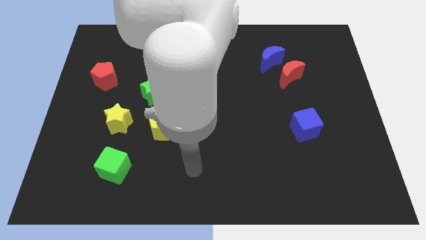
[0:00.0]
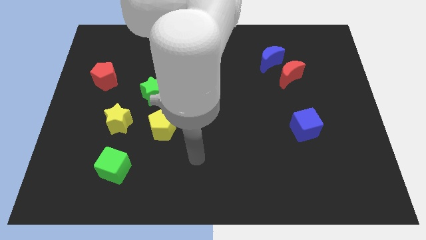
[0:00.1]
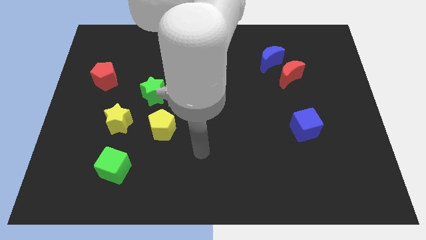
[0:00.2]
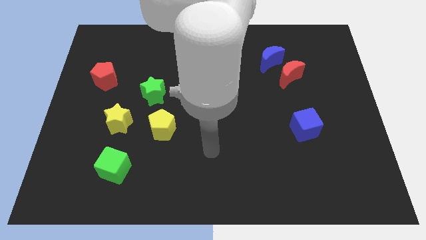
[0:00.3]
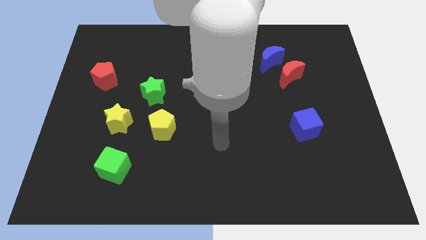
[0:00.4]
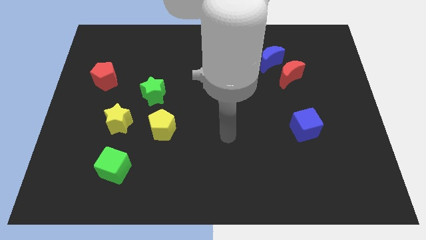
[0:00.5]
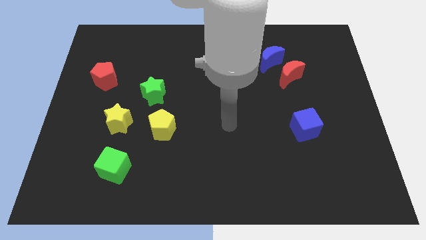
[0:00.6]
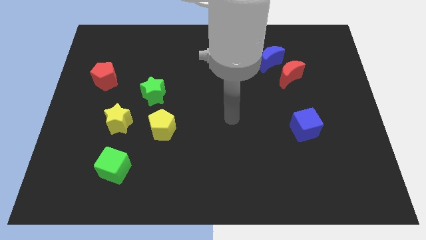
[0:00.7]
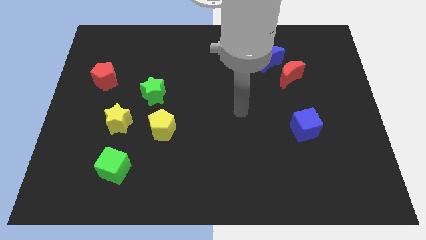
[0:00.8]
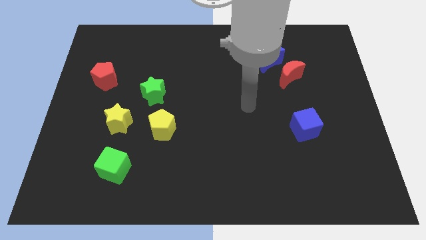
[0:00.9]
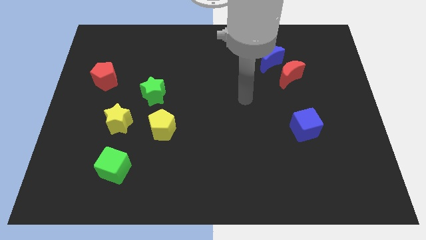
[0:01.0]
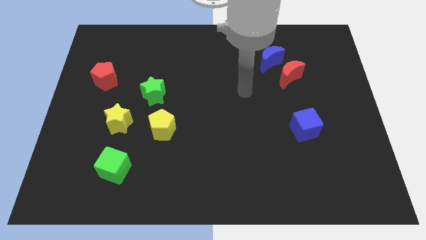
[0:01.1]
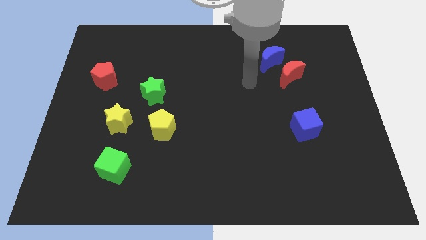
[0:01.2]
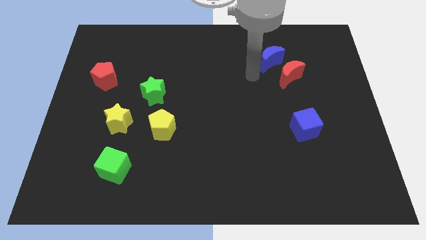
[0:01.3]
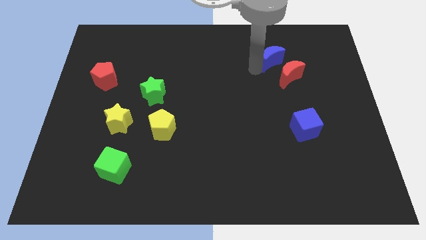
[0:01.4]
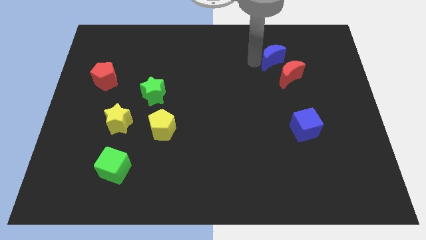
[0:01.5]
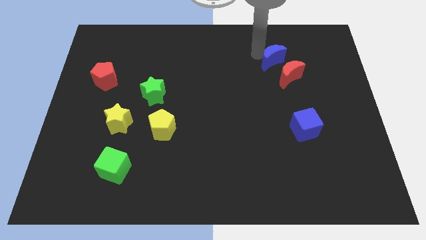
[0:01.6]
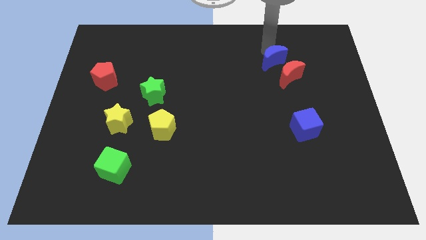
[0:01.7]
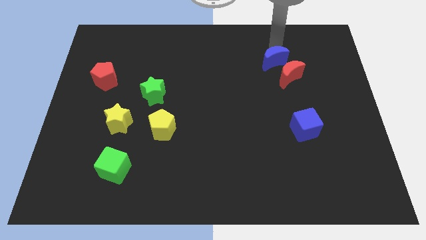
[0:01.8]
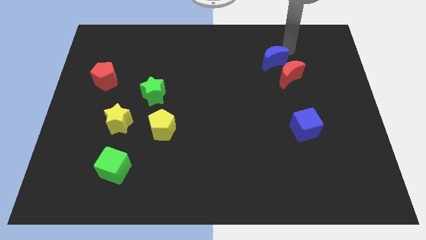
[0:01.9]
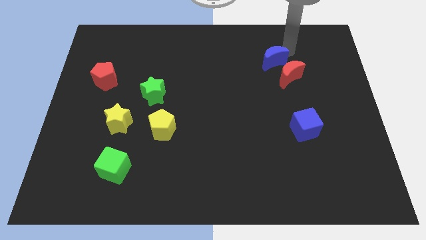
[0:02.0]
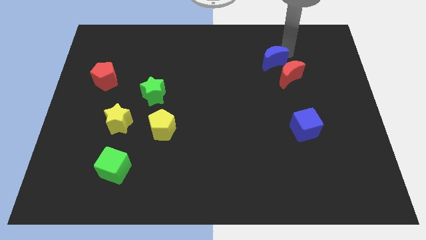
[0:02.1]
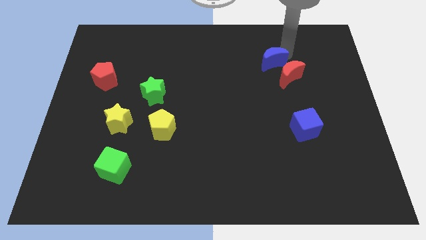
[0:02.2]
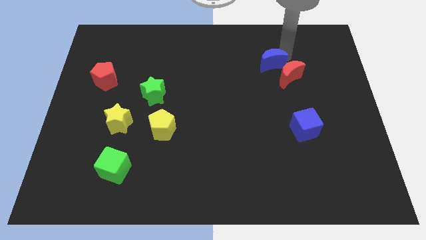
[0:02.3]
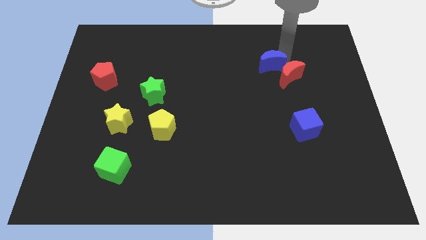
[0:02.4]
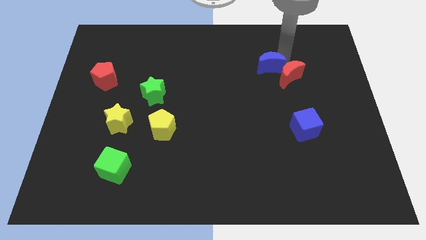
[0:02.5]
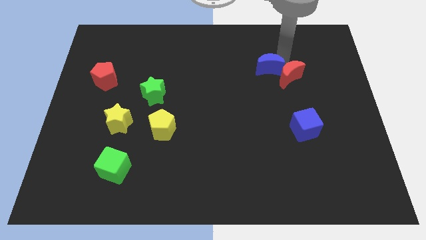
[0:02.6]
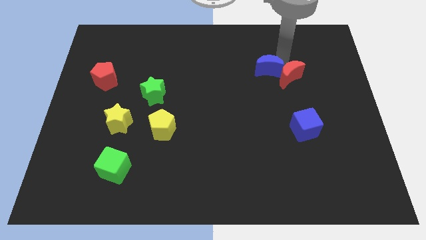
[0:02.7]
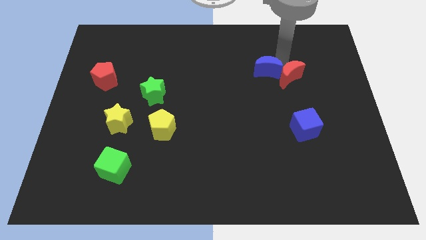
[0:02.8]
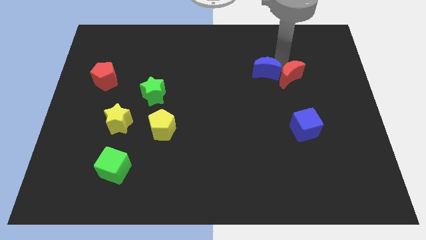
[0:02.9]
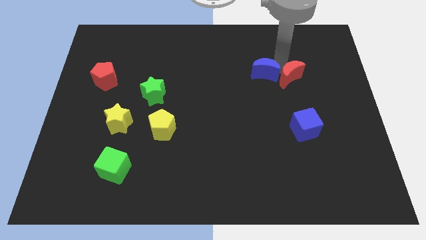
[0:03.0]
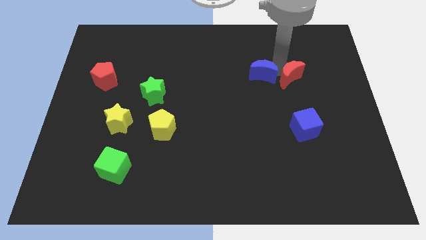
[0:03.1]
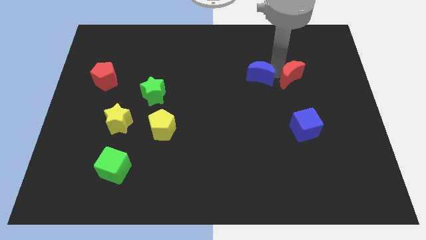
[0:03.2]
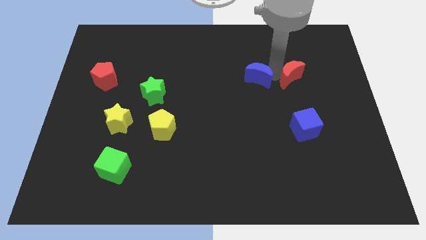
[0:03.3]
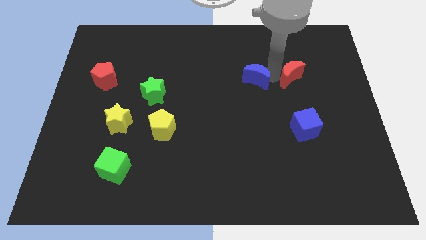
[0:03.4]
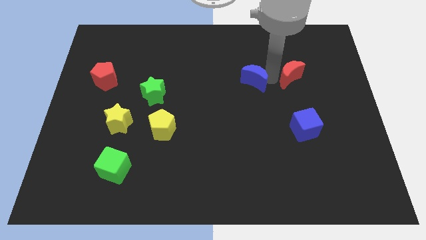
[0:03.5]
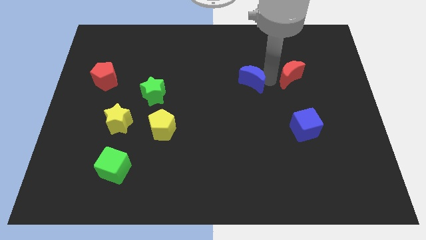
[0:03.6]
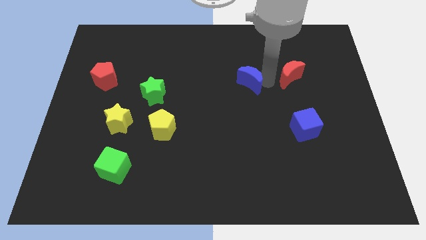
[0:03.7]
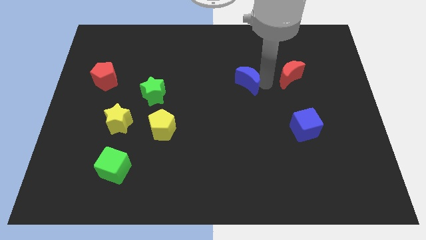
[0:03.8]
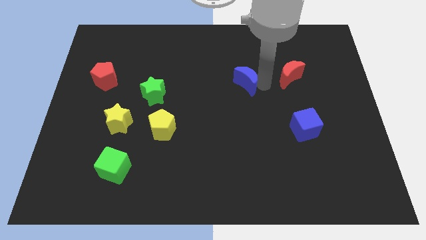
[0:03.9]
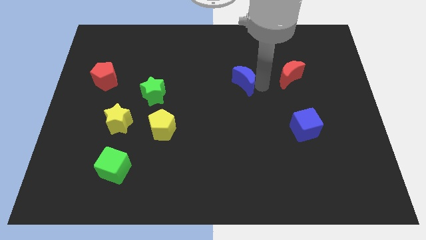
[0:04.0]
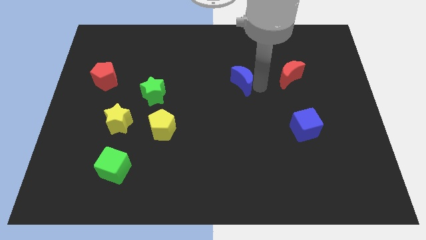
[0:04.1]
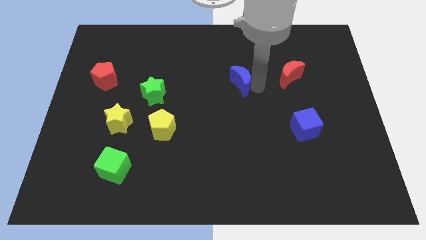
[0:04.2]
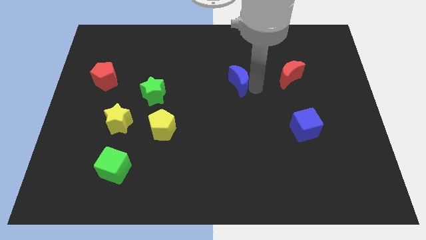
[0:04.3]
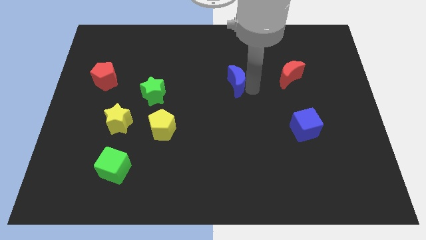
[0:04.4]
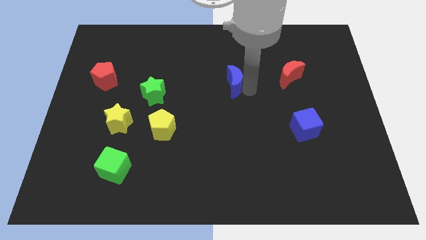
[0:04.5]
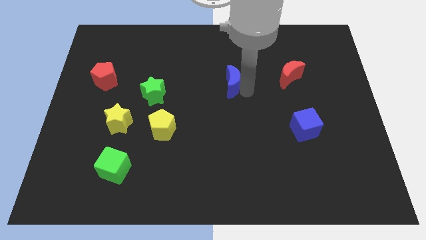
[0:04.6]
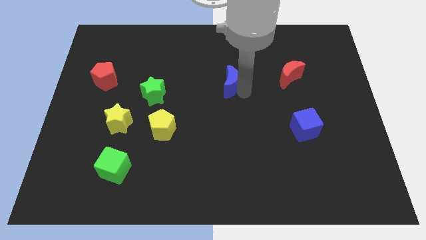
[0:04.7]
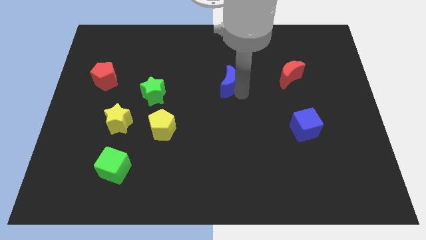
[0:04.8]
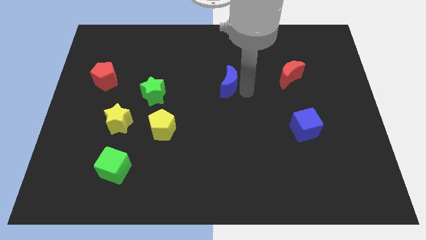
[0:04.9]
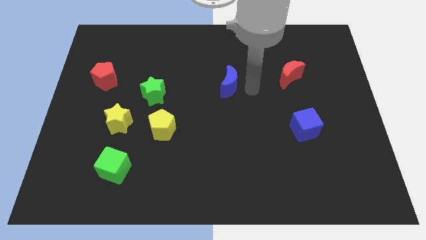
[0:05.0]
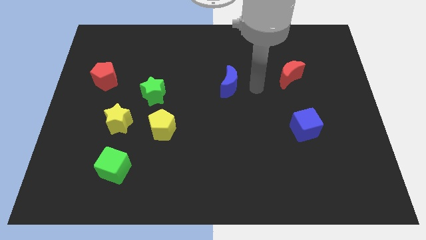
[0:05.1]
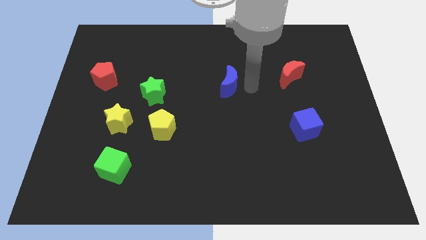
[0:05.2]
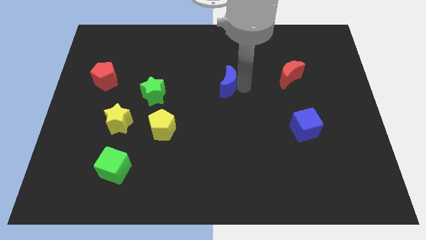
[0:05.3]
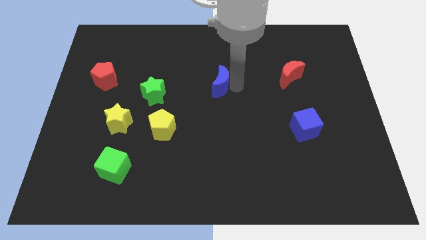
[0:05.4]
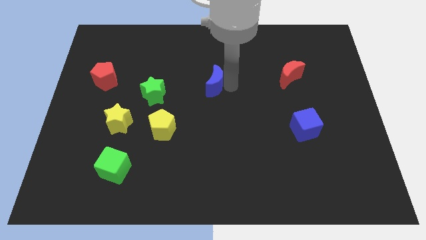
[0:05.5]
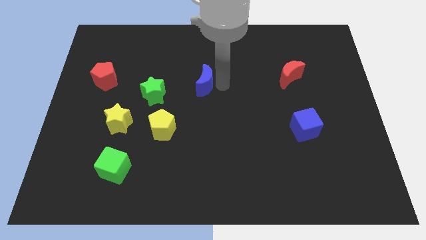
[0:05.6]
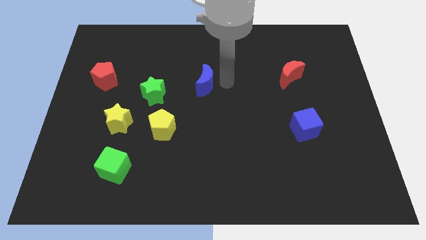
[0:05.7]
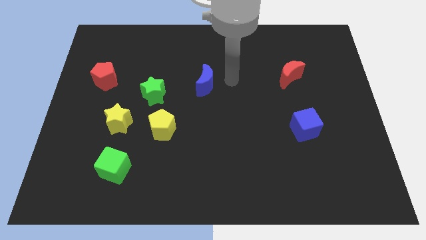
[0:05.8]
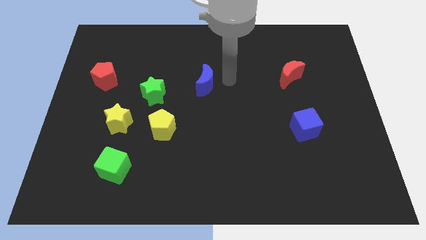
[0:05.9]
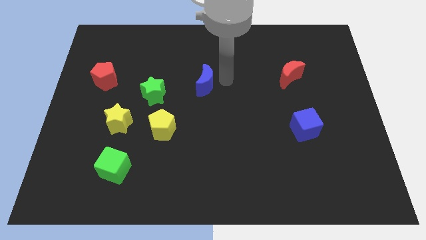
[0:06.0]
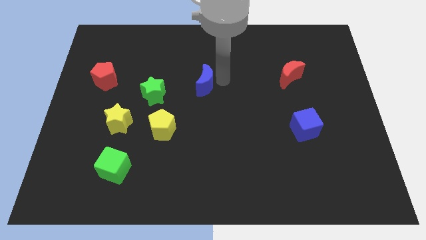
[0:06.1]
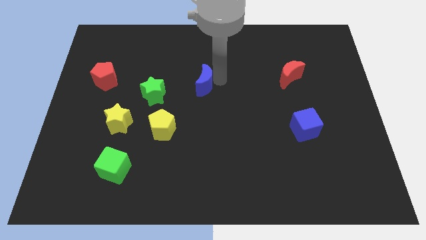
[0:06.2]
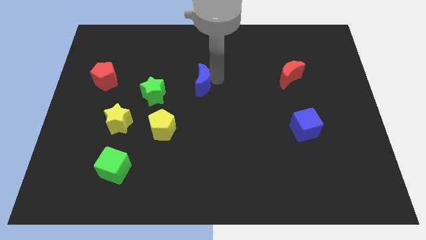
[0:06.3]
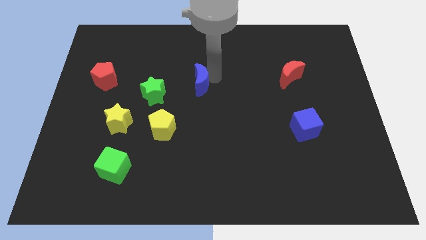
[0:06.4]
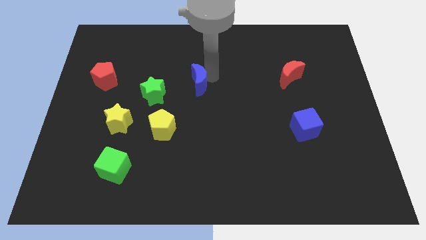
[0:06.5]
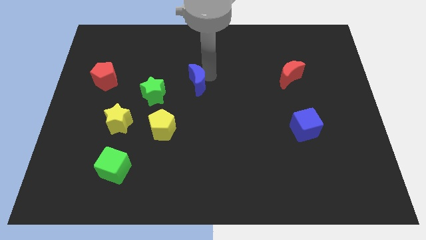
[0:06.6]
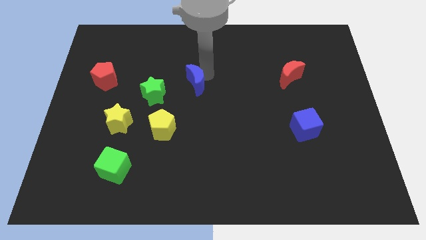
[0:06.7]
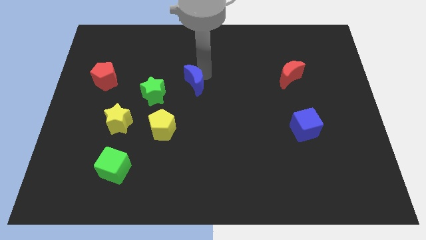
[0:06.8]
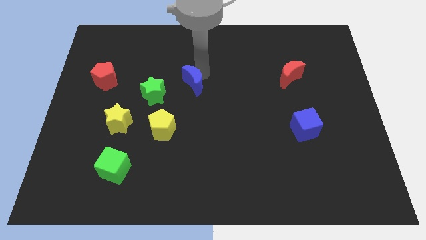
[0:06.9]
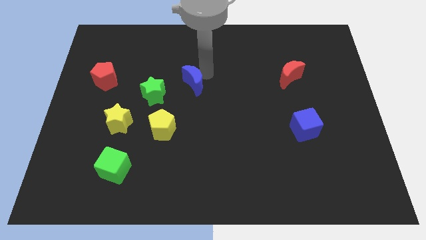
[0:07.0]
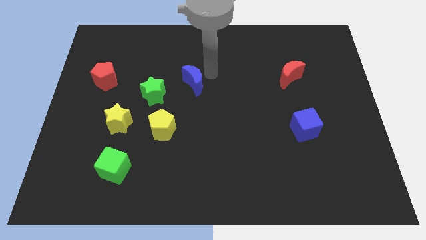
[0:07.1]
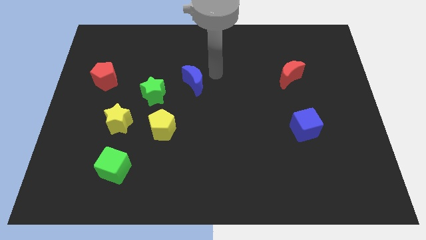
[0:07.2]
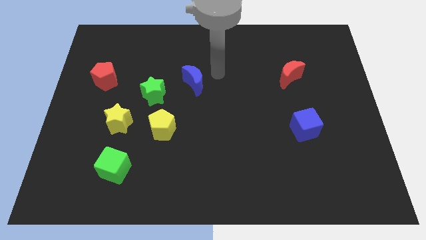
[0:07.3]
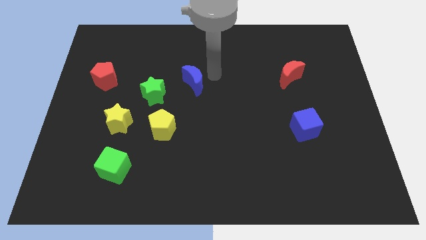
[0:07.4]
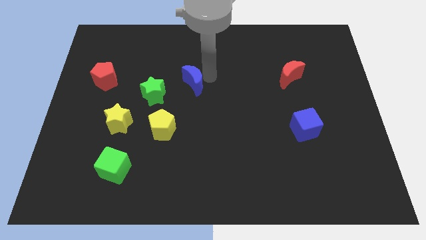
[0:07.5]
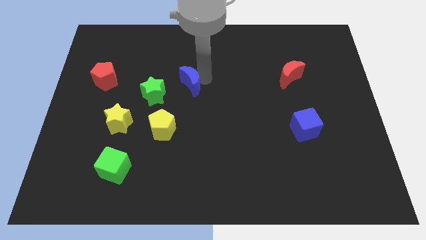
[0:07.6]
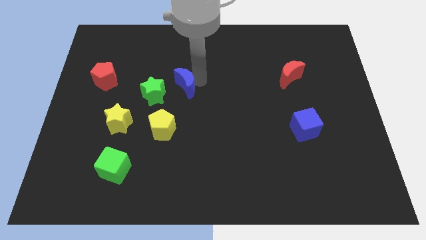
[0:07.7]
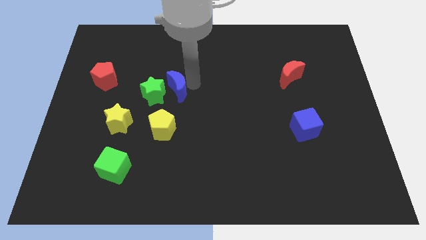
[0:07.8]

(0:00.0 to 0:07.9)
put the blue moon next to the green star
